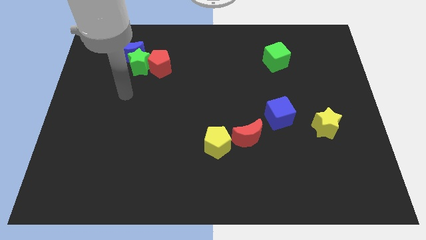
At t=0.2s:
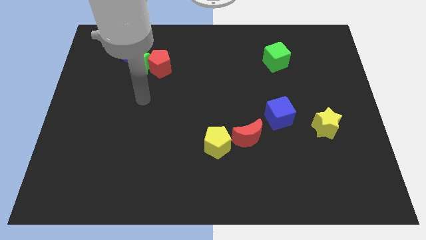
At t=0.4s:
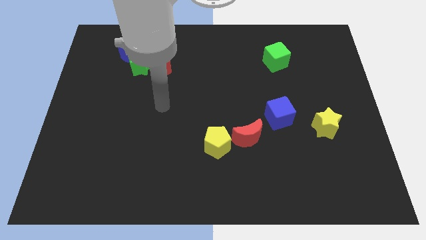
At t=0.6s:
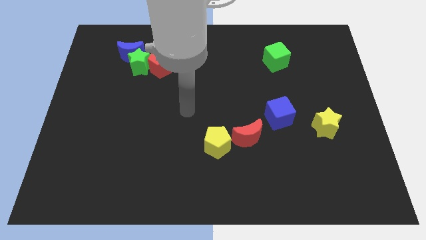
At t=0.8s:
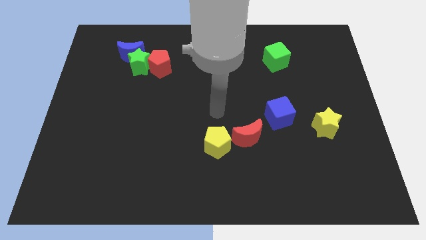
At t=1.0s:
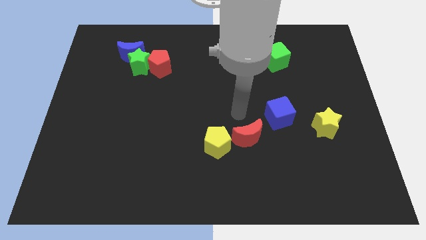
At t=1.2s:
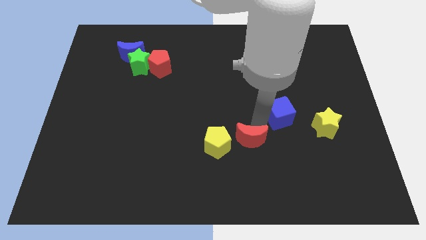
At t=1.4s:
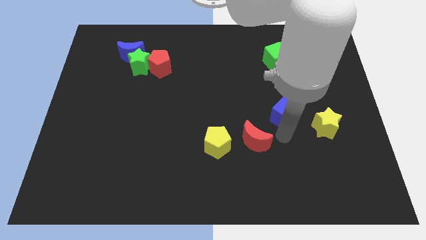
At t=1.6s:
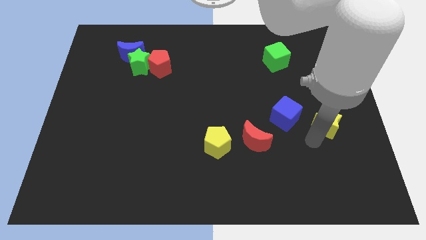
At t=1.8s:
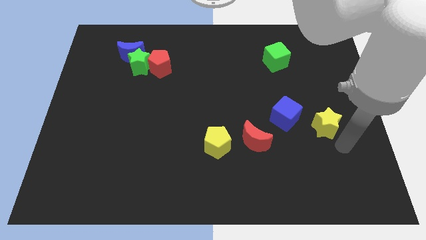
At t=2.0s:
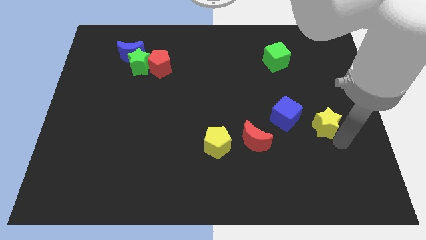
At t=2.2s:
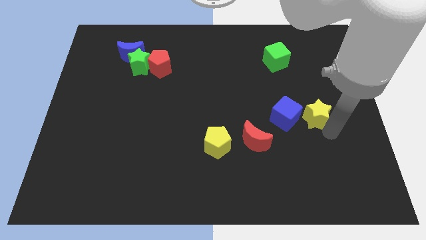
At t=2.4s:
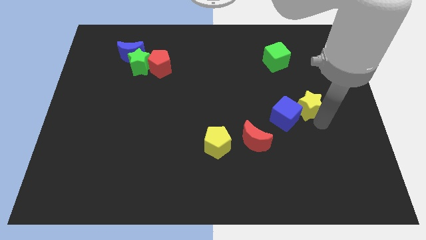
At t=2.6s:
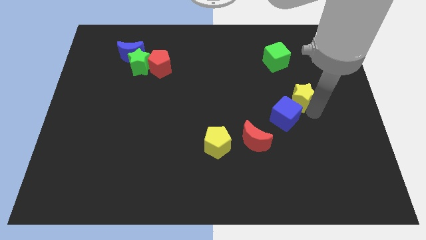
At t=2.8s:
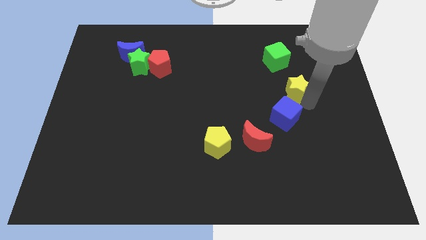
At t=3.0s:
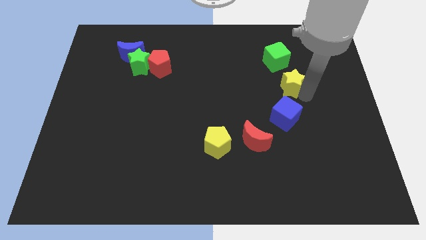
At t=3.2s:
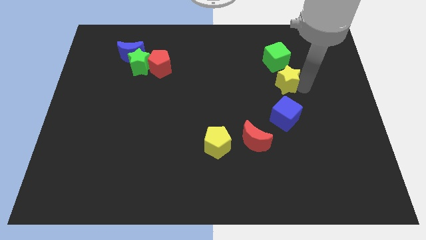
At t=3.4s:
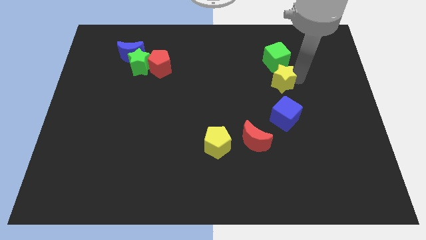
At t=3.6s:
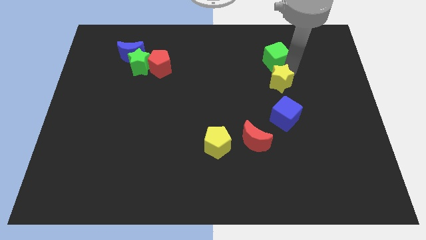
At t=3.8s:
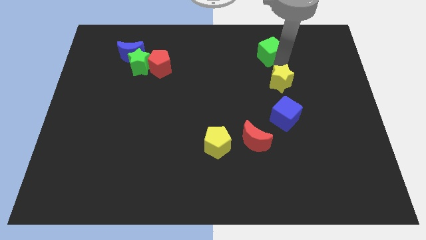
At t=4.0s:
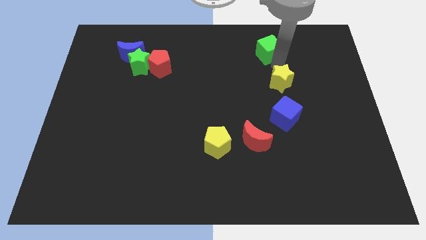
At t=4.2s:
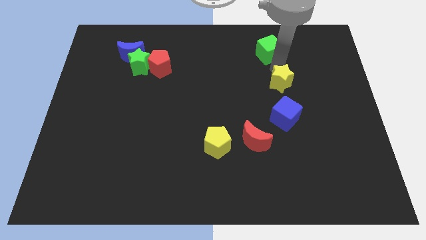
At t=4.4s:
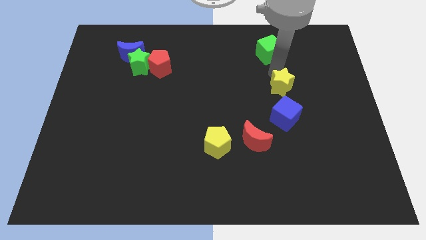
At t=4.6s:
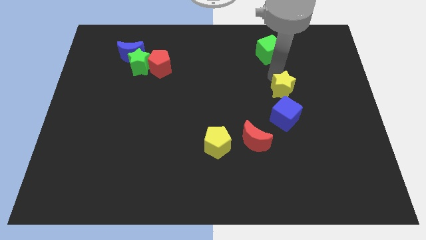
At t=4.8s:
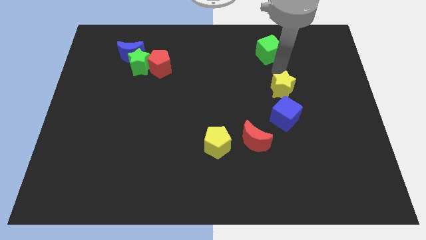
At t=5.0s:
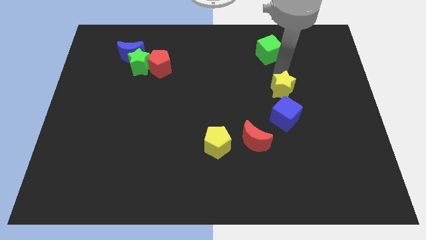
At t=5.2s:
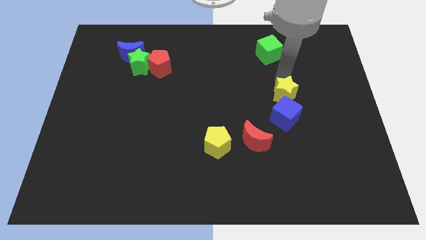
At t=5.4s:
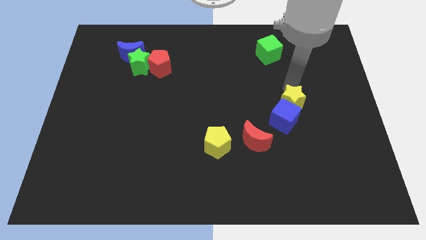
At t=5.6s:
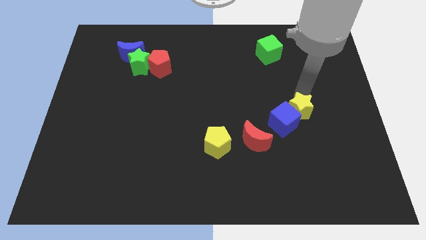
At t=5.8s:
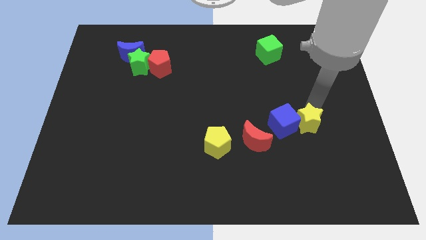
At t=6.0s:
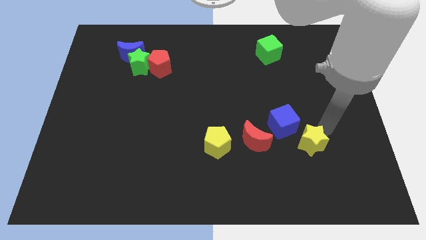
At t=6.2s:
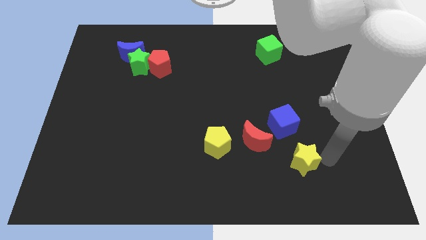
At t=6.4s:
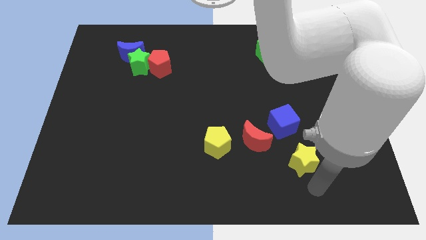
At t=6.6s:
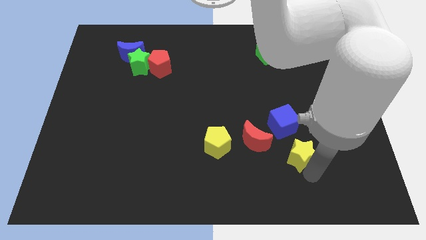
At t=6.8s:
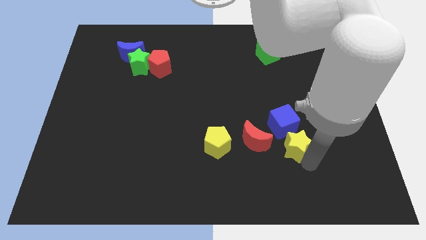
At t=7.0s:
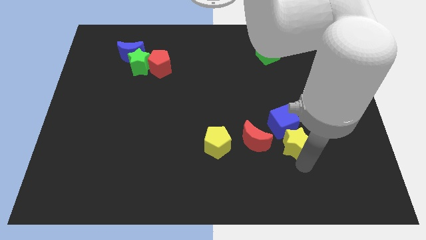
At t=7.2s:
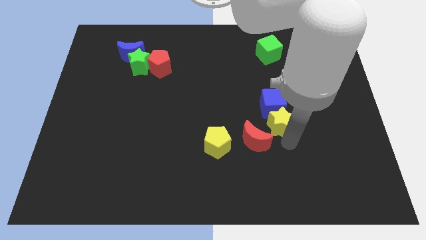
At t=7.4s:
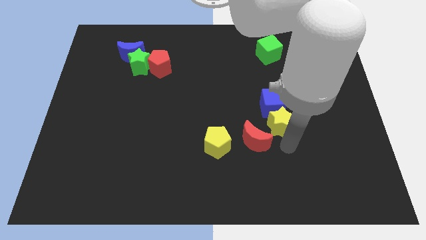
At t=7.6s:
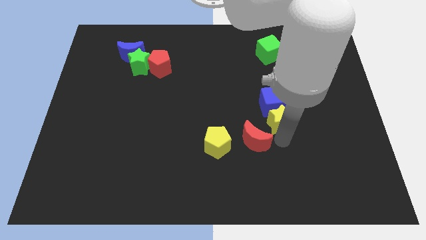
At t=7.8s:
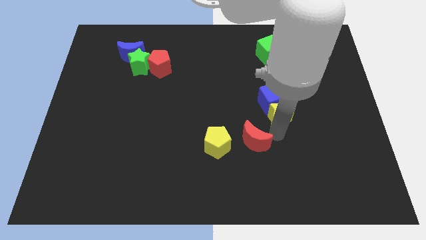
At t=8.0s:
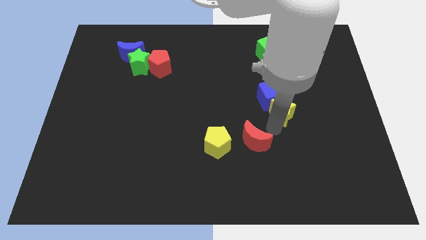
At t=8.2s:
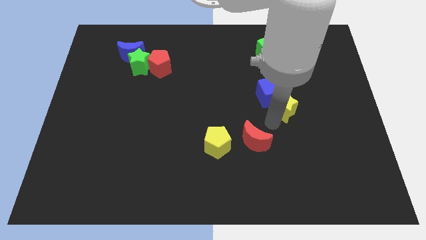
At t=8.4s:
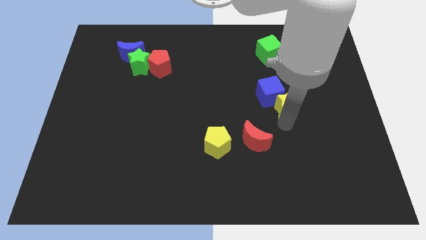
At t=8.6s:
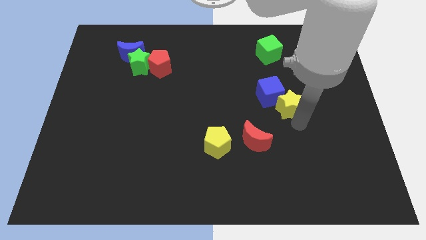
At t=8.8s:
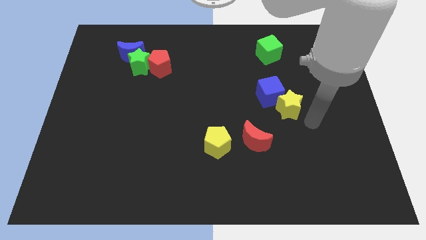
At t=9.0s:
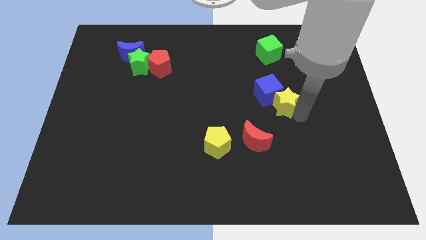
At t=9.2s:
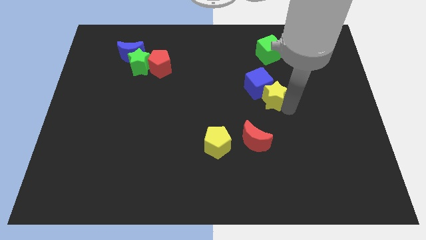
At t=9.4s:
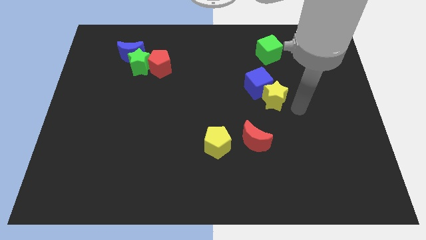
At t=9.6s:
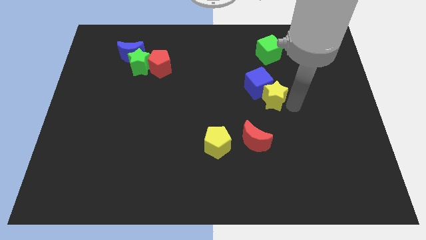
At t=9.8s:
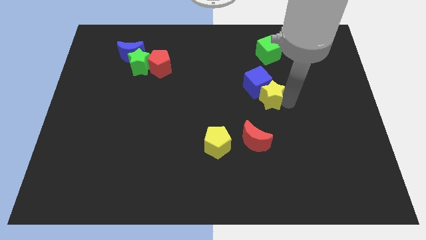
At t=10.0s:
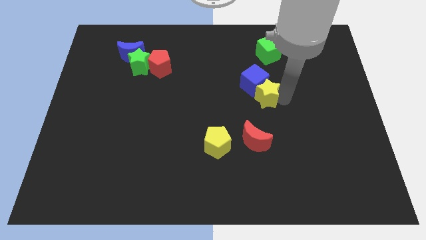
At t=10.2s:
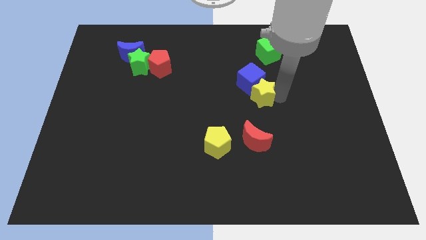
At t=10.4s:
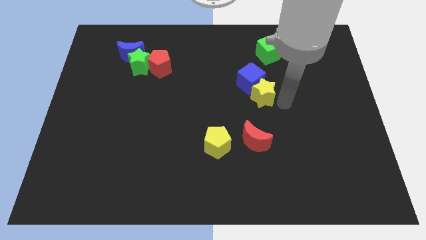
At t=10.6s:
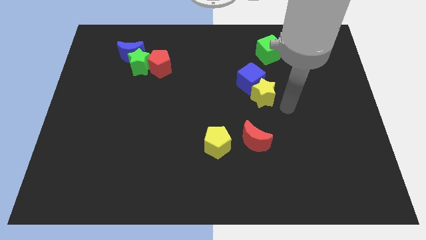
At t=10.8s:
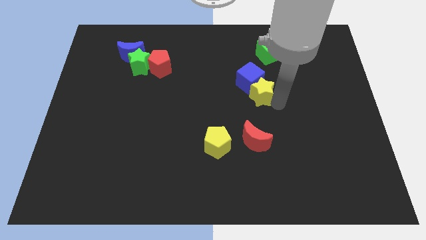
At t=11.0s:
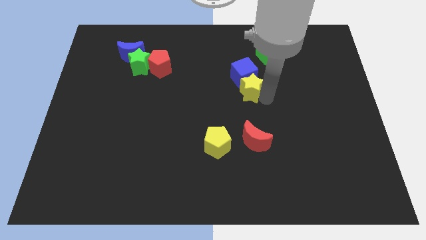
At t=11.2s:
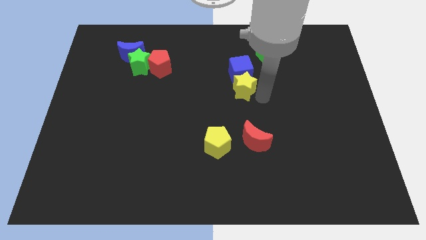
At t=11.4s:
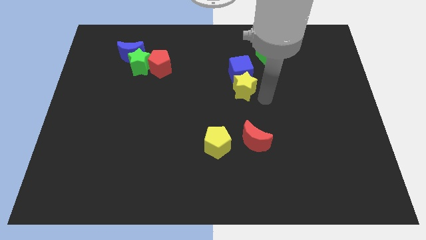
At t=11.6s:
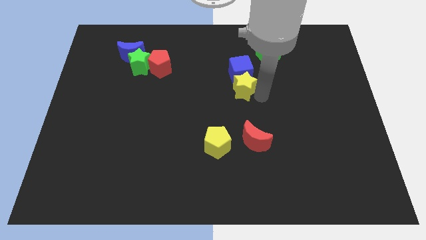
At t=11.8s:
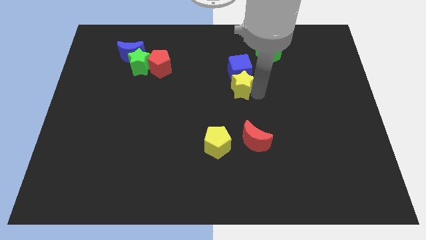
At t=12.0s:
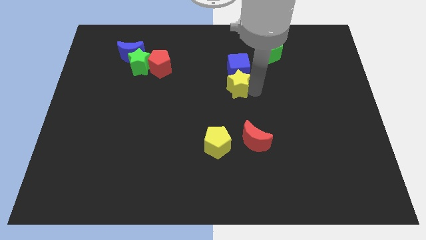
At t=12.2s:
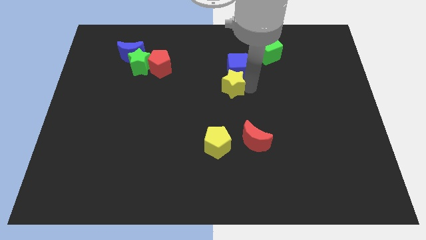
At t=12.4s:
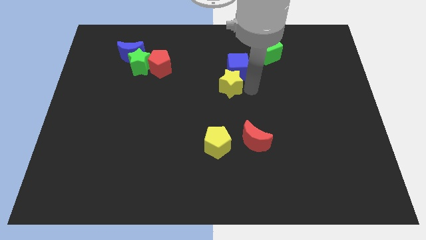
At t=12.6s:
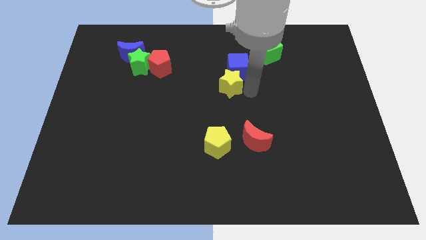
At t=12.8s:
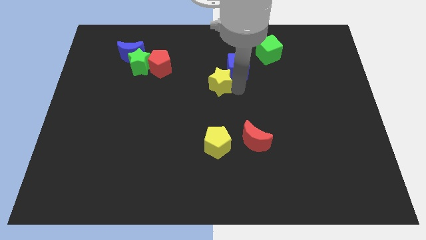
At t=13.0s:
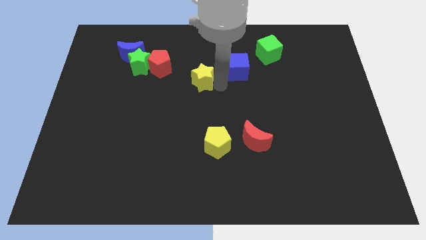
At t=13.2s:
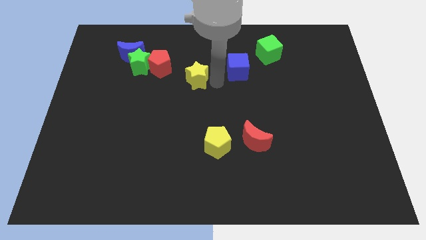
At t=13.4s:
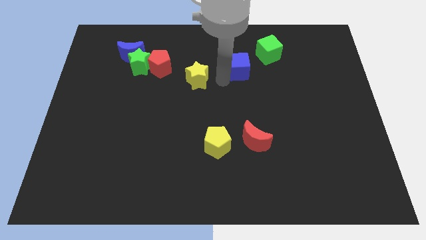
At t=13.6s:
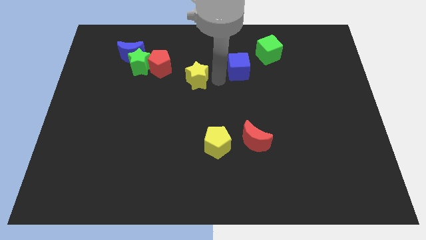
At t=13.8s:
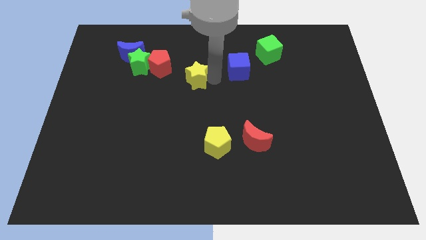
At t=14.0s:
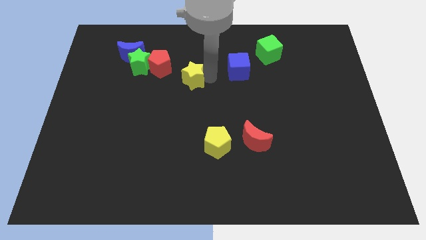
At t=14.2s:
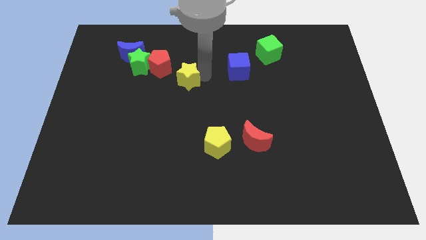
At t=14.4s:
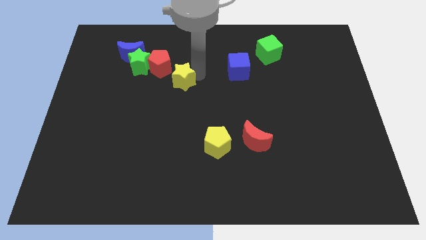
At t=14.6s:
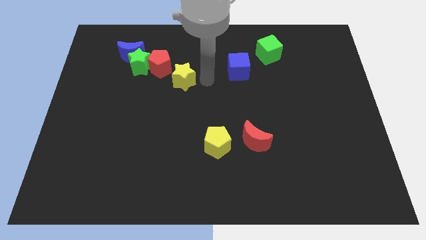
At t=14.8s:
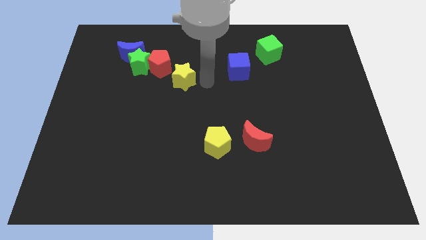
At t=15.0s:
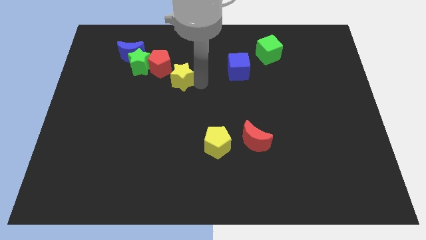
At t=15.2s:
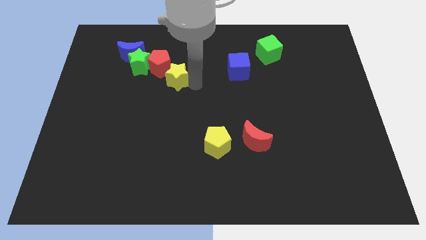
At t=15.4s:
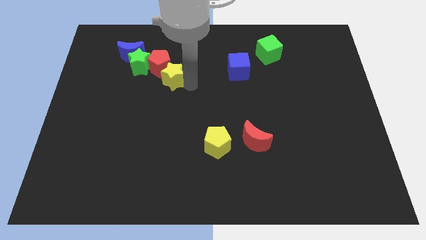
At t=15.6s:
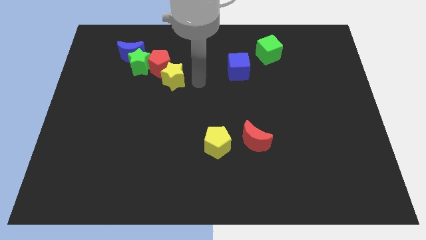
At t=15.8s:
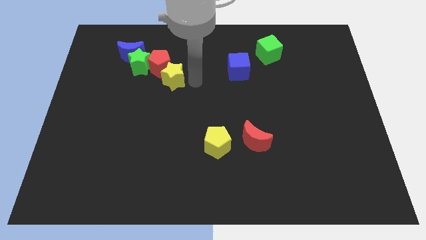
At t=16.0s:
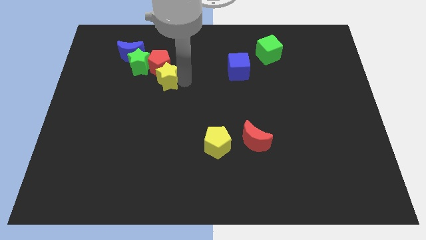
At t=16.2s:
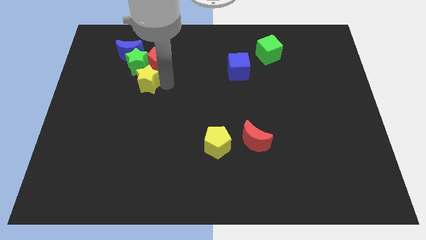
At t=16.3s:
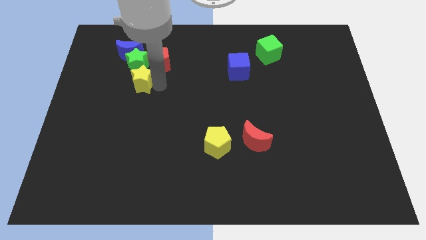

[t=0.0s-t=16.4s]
slide the yellow star next to the green star
